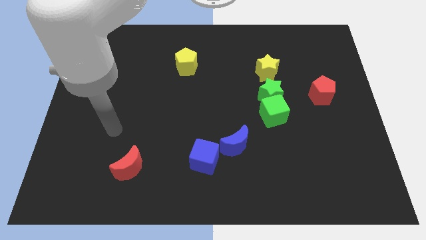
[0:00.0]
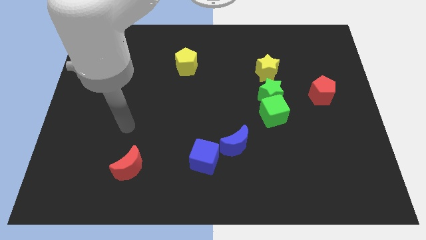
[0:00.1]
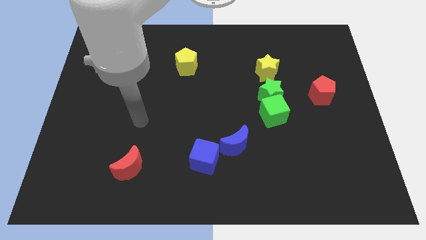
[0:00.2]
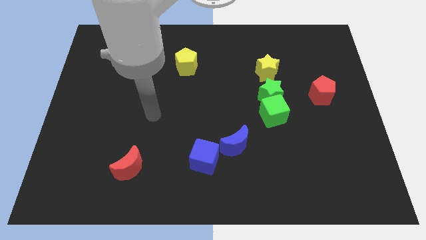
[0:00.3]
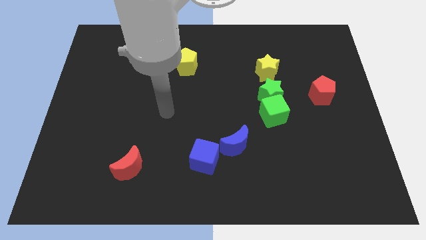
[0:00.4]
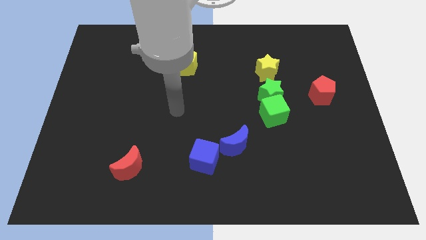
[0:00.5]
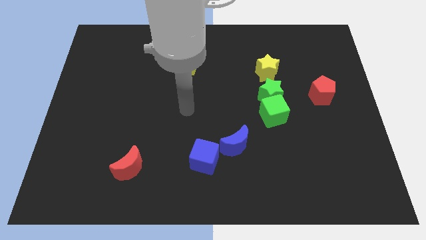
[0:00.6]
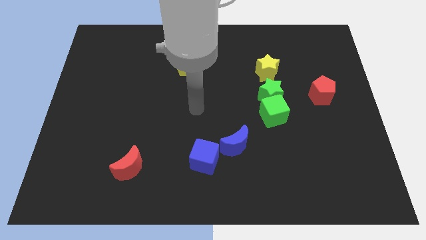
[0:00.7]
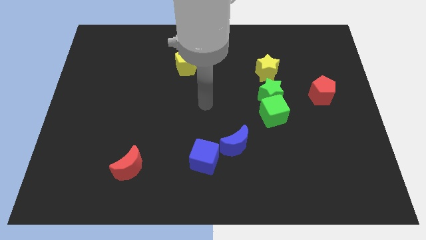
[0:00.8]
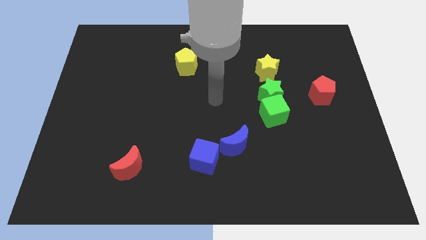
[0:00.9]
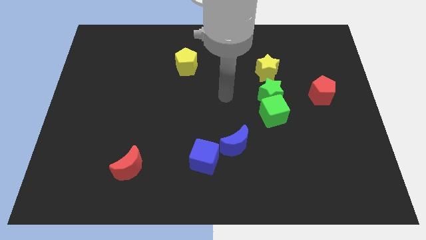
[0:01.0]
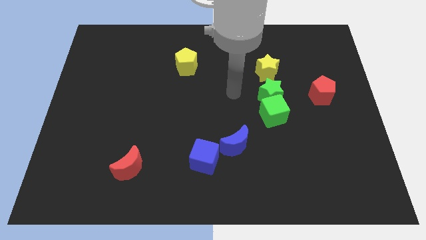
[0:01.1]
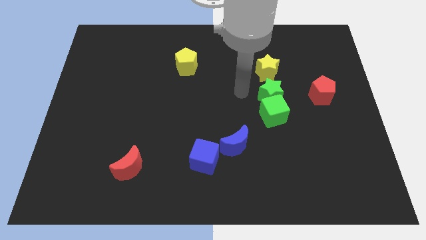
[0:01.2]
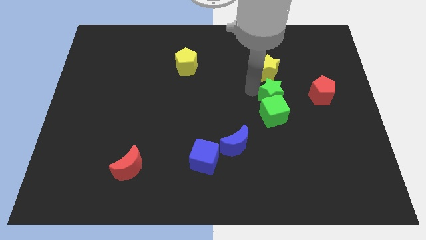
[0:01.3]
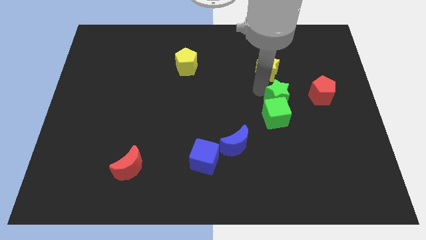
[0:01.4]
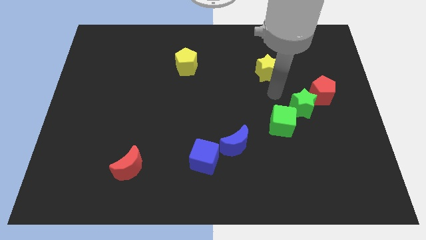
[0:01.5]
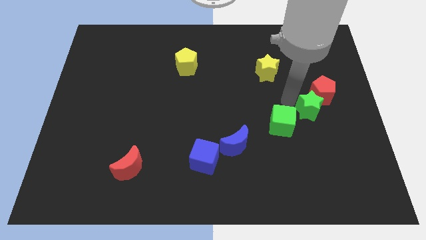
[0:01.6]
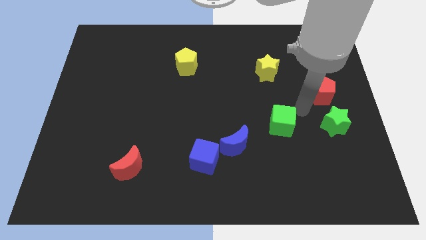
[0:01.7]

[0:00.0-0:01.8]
pull the green cube apart from the green star

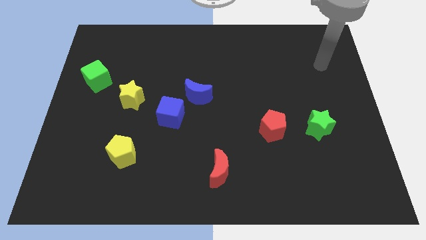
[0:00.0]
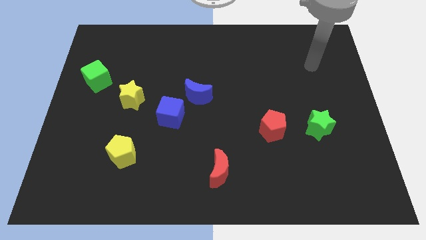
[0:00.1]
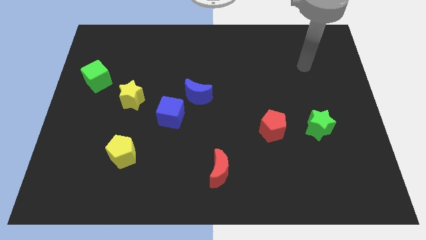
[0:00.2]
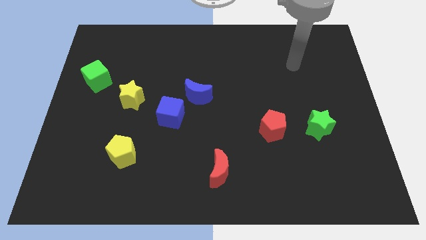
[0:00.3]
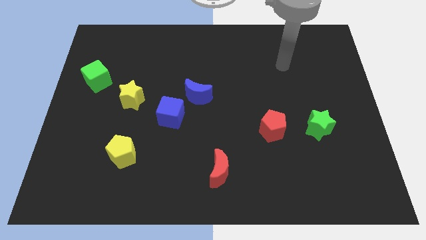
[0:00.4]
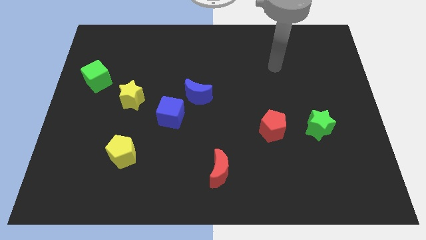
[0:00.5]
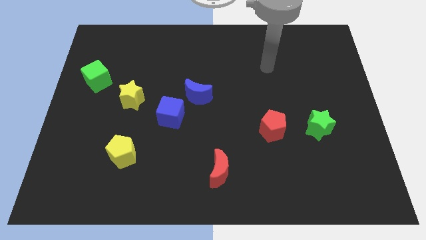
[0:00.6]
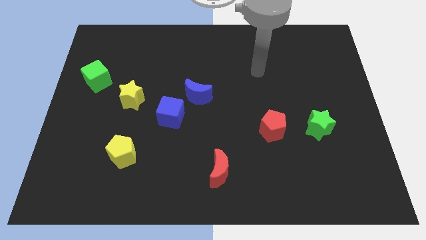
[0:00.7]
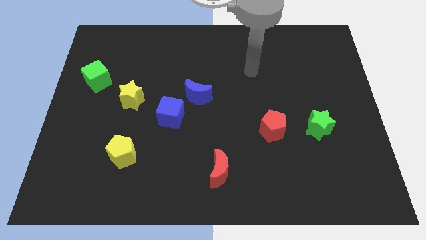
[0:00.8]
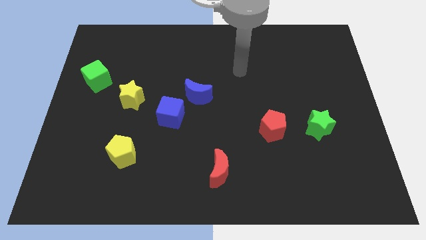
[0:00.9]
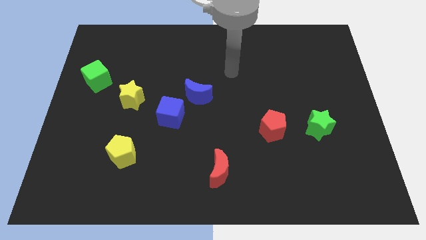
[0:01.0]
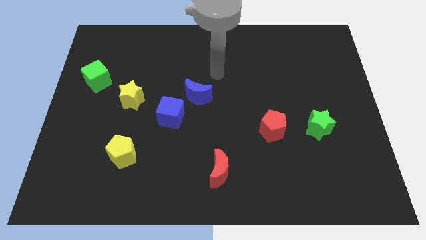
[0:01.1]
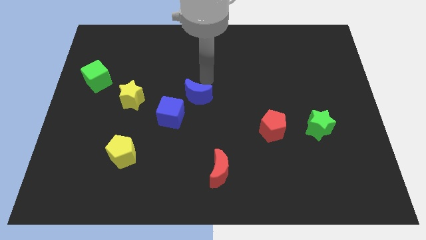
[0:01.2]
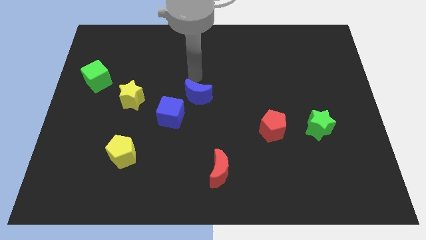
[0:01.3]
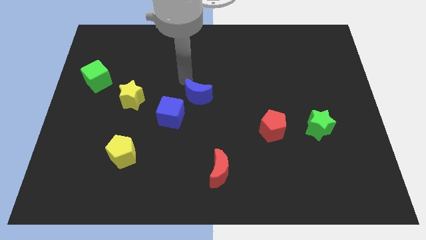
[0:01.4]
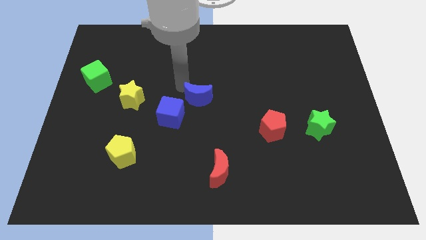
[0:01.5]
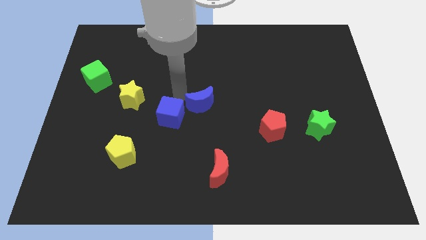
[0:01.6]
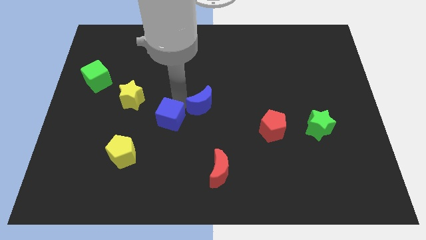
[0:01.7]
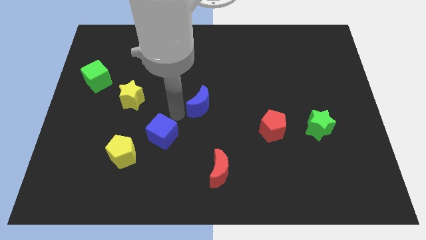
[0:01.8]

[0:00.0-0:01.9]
move the blue moon away from the blue cube

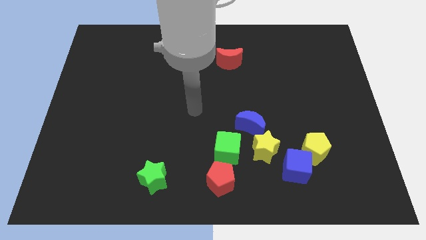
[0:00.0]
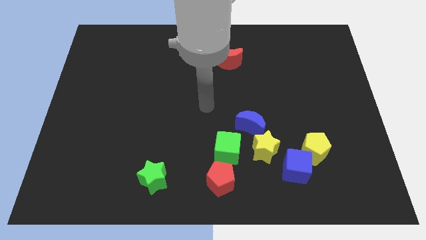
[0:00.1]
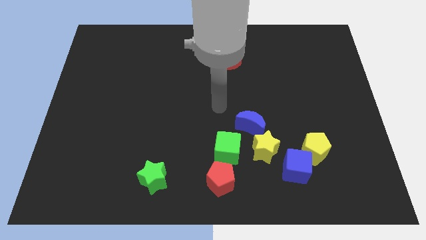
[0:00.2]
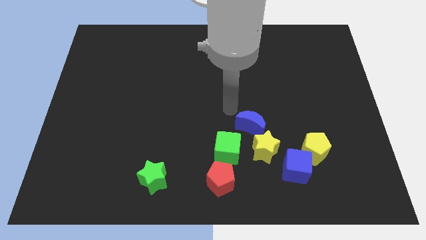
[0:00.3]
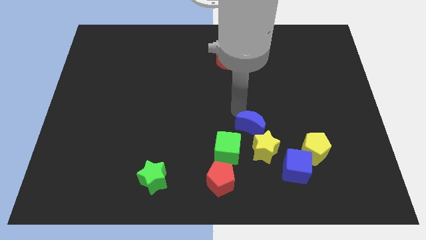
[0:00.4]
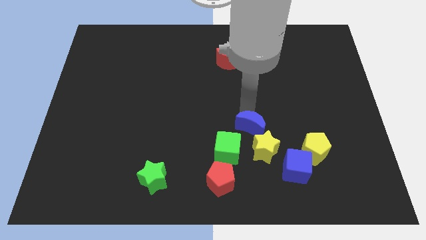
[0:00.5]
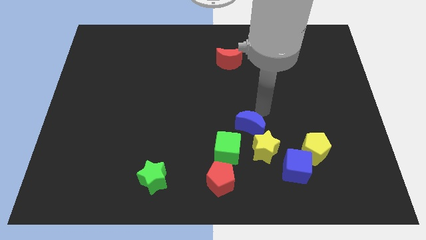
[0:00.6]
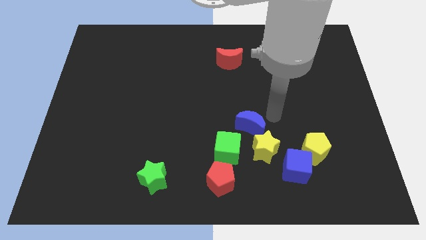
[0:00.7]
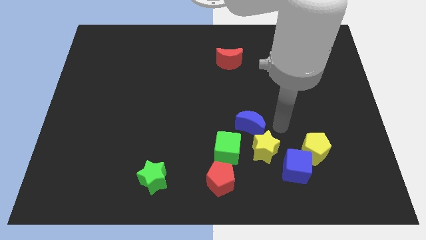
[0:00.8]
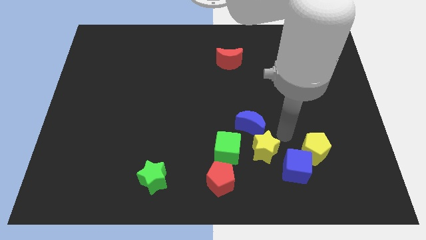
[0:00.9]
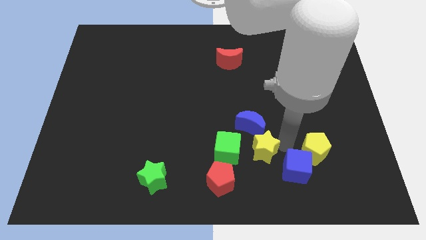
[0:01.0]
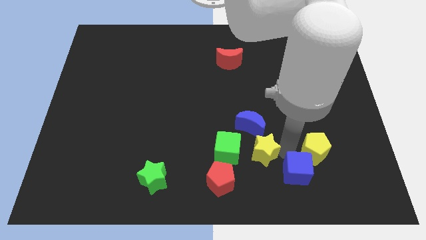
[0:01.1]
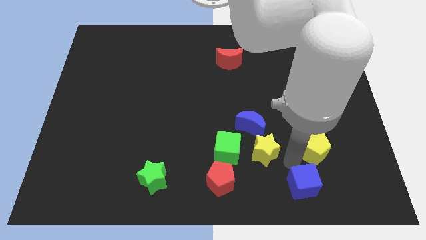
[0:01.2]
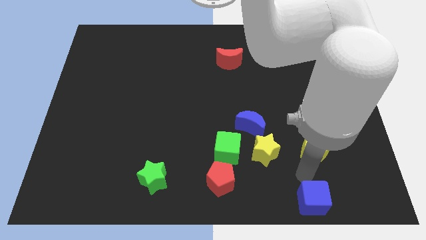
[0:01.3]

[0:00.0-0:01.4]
move the yellow pentagon away from the blue cube

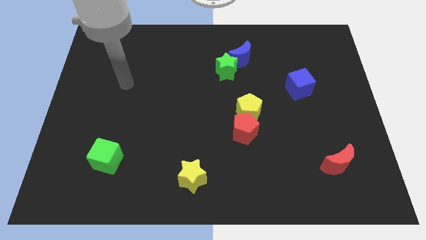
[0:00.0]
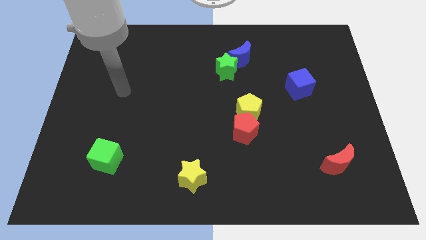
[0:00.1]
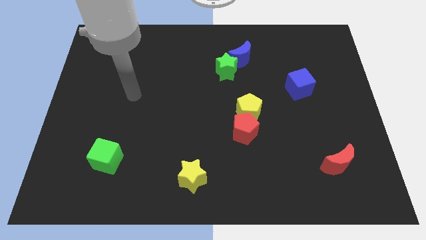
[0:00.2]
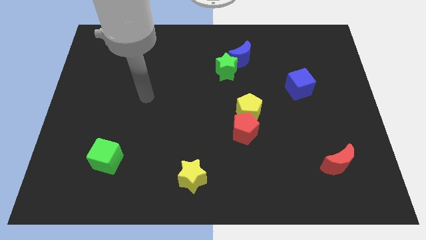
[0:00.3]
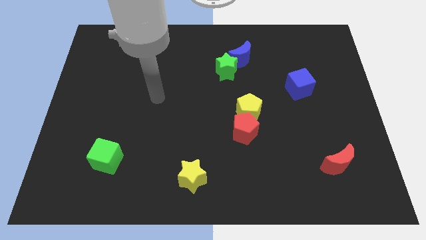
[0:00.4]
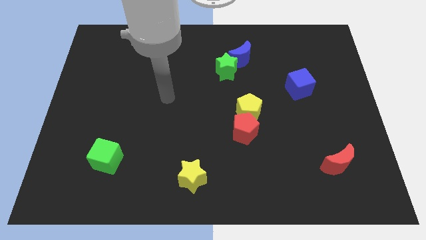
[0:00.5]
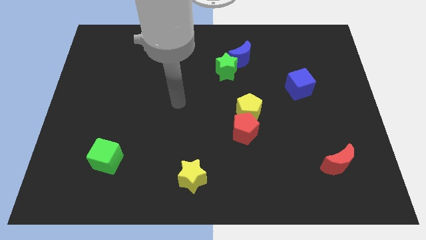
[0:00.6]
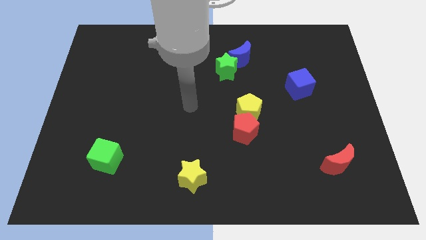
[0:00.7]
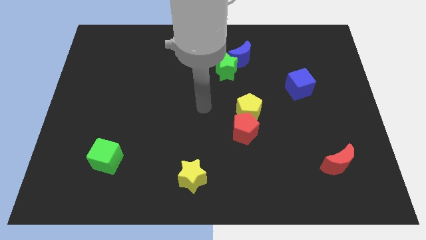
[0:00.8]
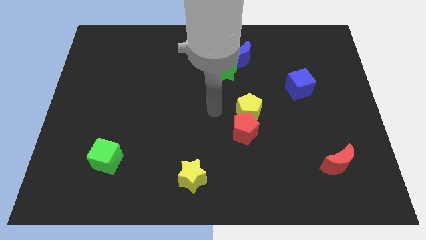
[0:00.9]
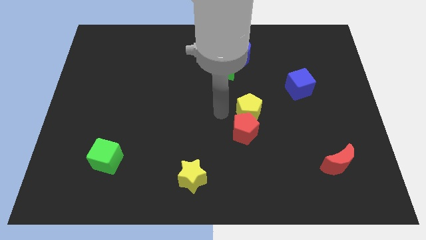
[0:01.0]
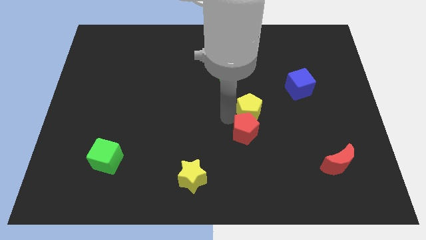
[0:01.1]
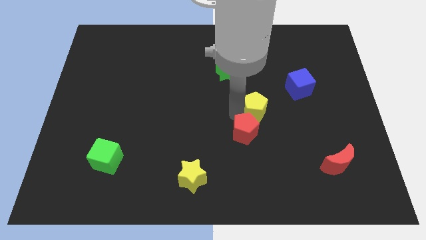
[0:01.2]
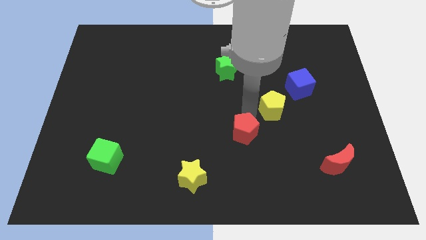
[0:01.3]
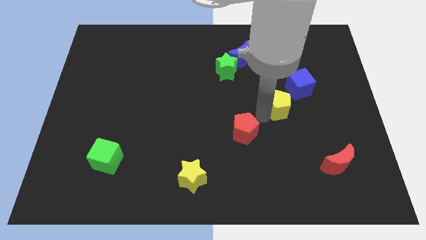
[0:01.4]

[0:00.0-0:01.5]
pull the red pentagon apart from the yellow pentagon

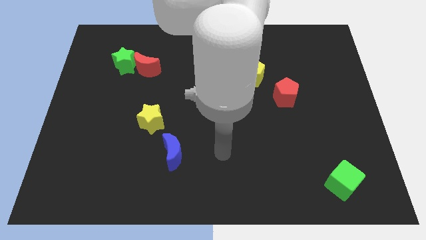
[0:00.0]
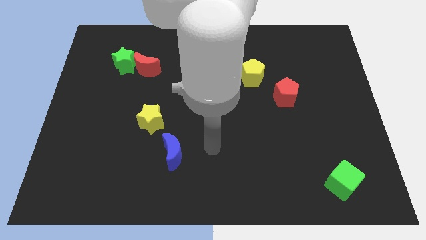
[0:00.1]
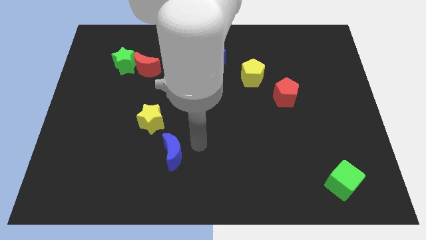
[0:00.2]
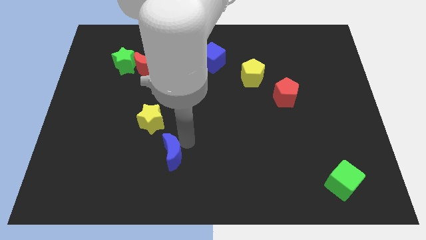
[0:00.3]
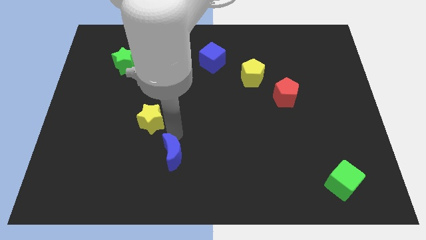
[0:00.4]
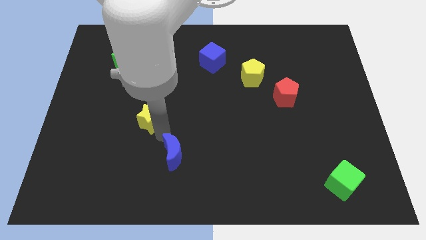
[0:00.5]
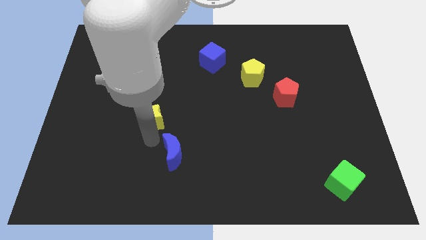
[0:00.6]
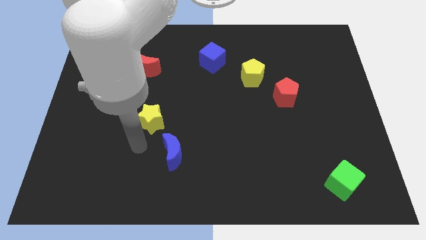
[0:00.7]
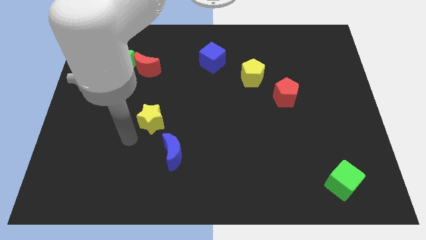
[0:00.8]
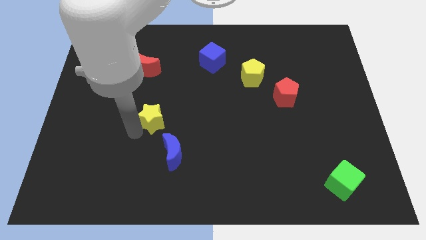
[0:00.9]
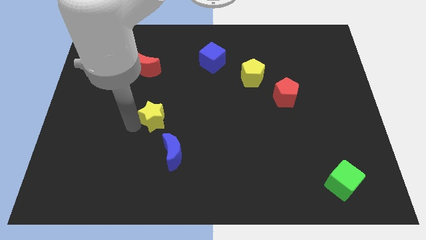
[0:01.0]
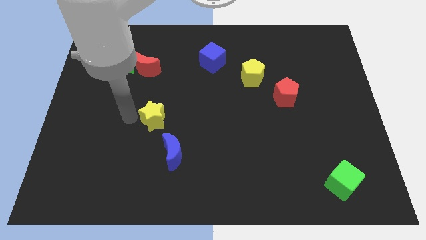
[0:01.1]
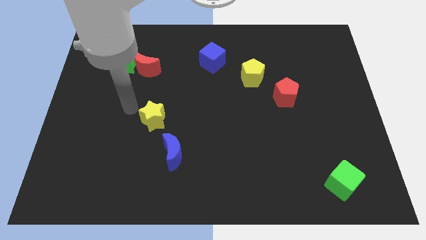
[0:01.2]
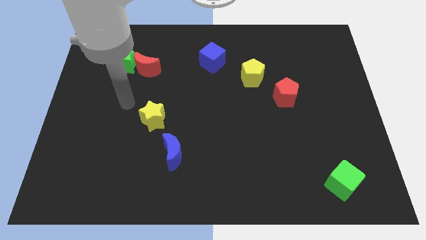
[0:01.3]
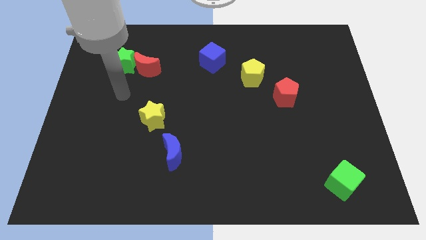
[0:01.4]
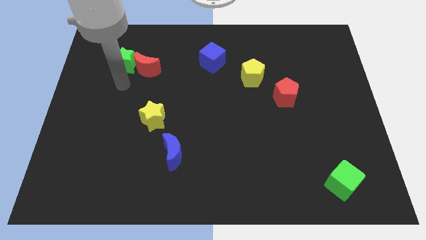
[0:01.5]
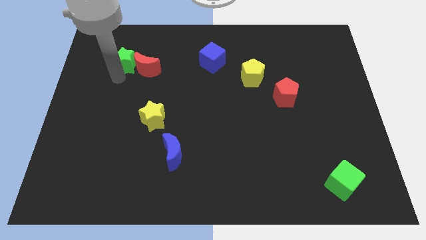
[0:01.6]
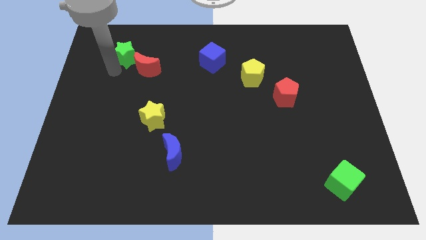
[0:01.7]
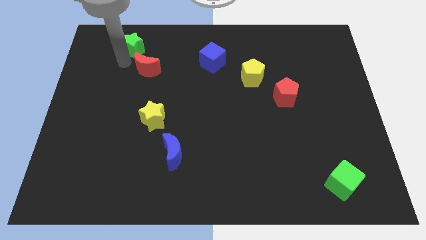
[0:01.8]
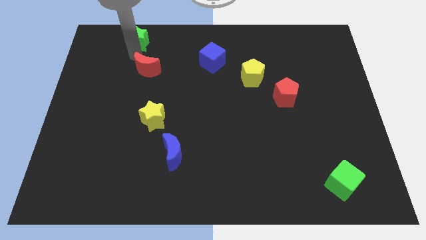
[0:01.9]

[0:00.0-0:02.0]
pull the red moon apart from the green star

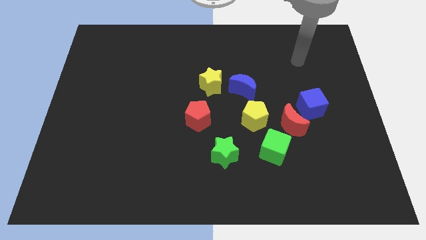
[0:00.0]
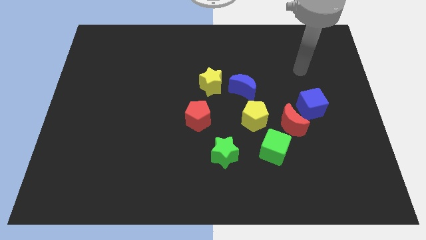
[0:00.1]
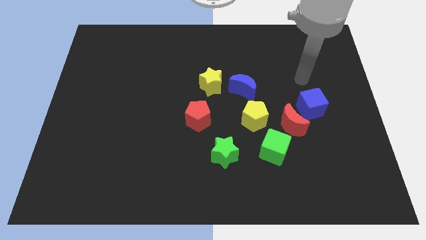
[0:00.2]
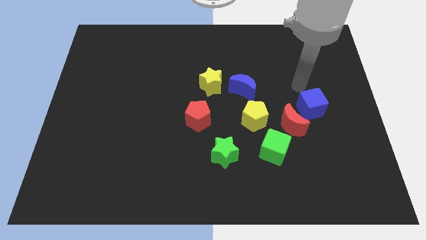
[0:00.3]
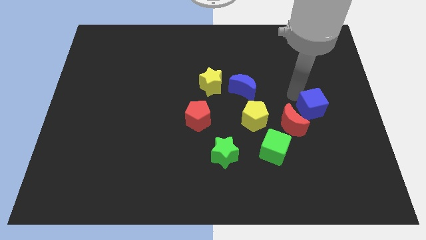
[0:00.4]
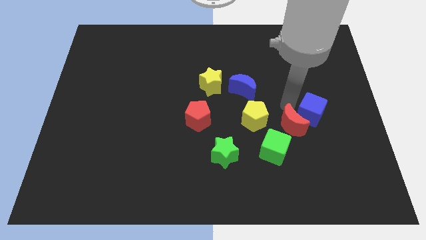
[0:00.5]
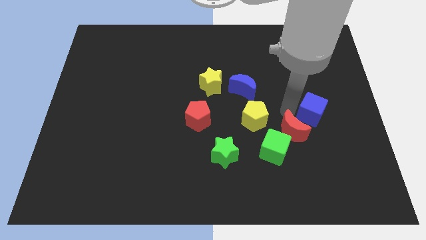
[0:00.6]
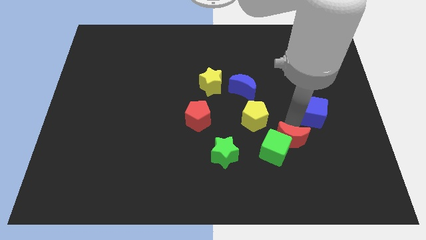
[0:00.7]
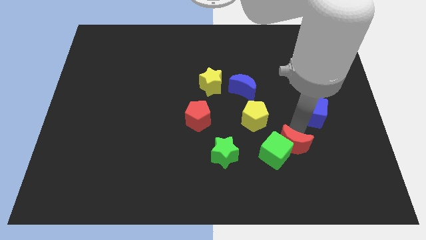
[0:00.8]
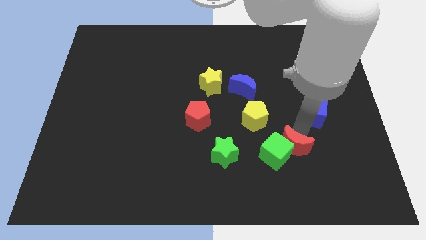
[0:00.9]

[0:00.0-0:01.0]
separate the blue cube from the red moon
